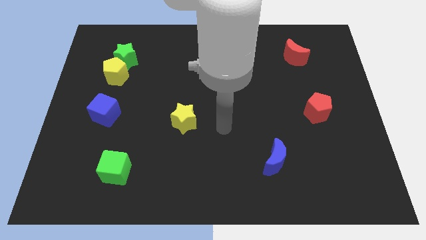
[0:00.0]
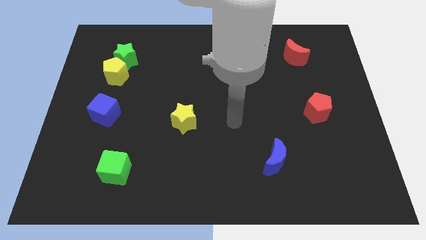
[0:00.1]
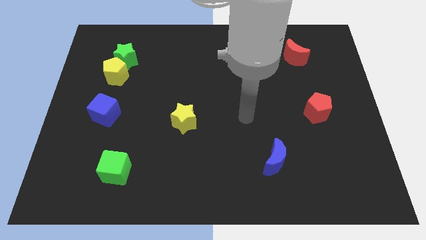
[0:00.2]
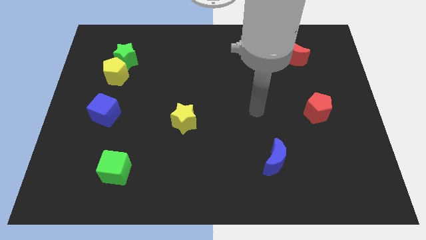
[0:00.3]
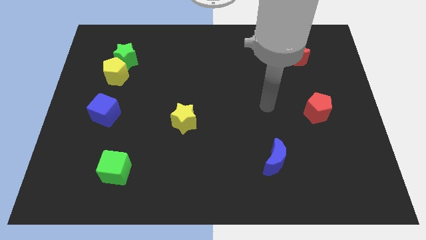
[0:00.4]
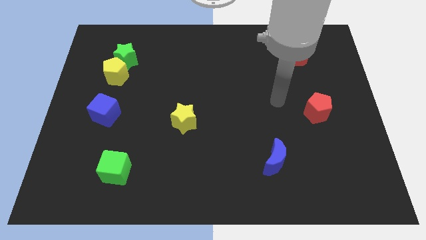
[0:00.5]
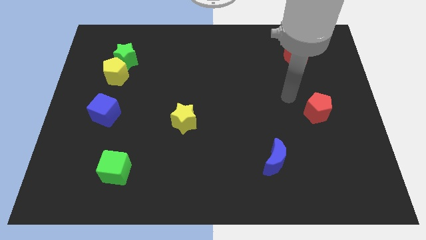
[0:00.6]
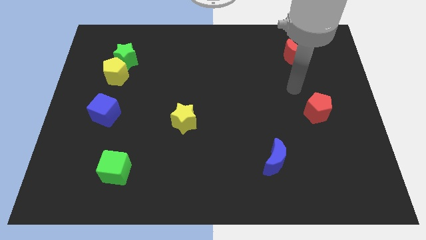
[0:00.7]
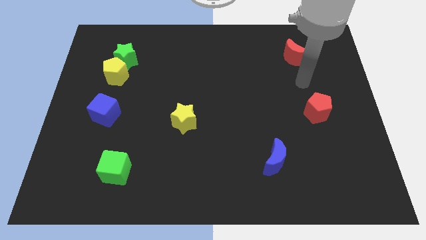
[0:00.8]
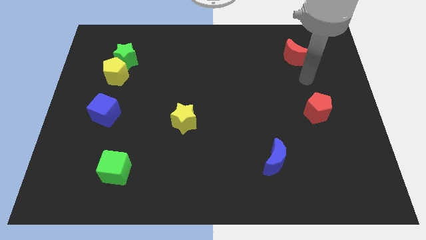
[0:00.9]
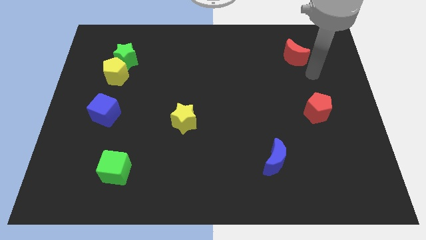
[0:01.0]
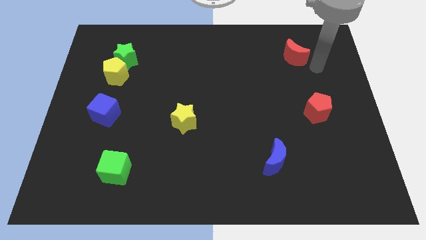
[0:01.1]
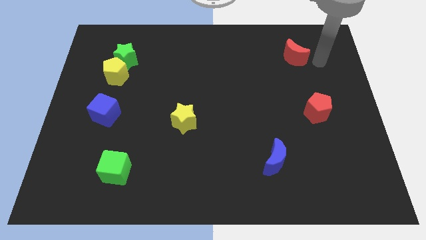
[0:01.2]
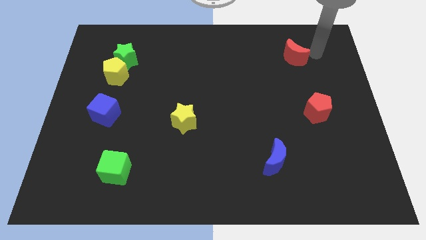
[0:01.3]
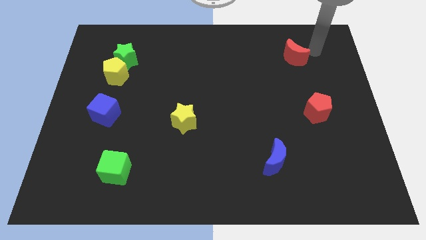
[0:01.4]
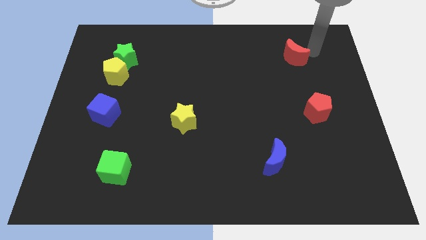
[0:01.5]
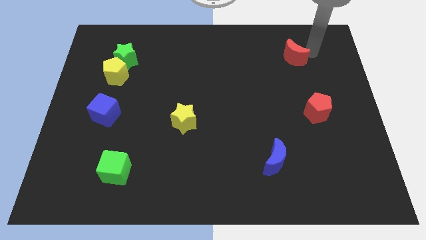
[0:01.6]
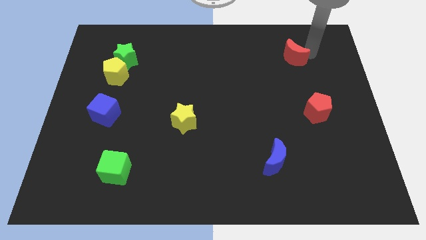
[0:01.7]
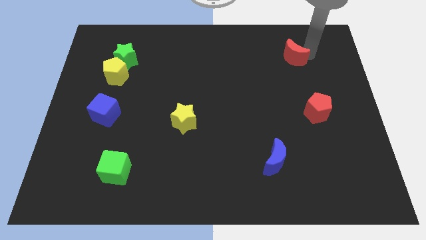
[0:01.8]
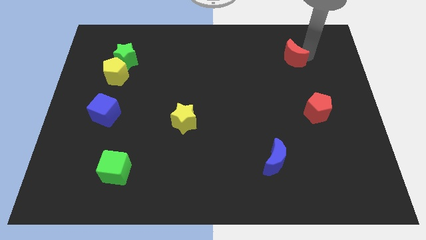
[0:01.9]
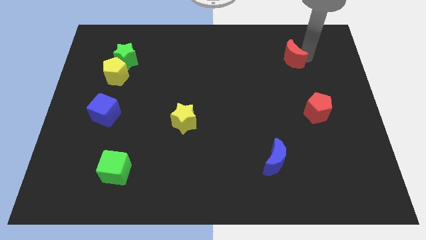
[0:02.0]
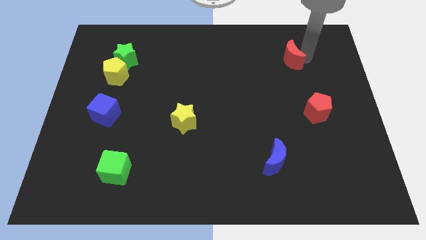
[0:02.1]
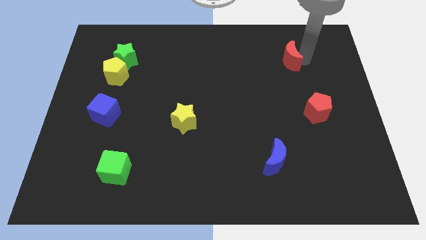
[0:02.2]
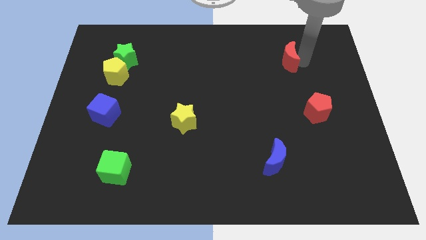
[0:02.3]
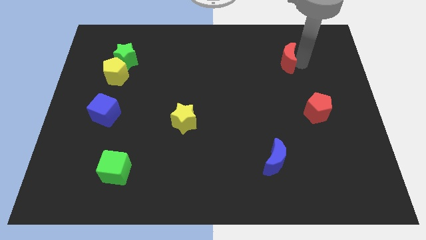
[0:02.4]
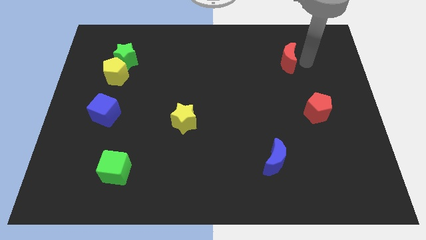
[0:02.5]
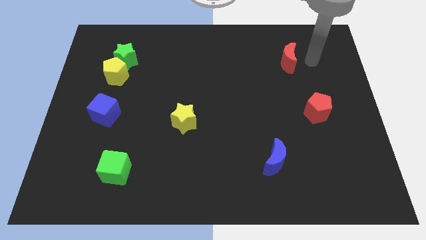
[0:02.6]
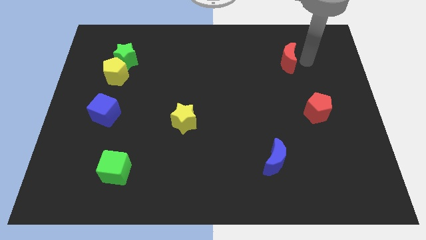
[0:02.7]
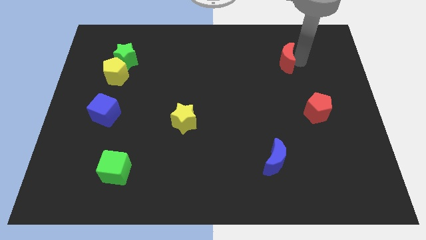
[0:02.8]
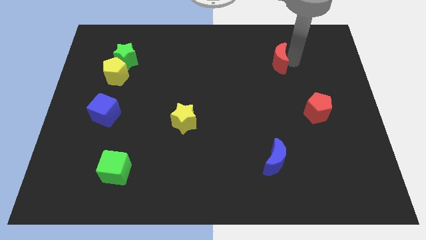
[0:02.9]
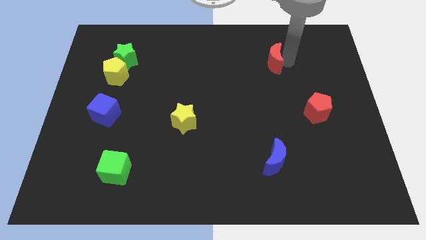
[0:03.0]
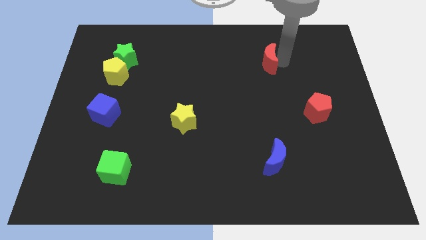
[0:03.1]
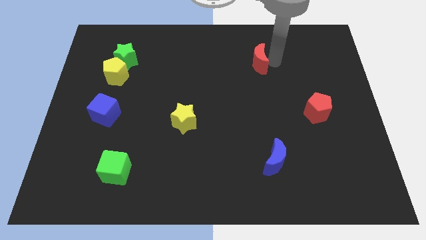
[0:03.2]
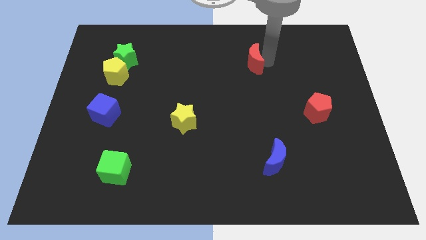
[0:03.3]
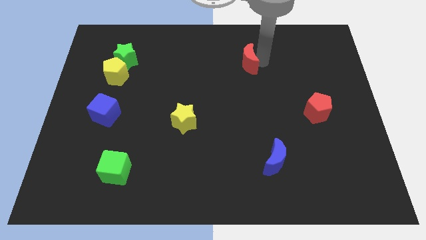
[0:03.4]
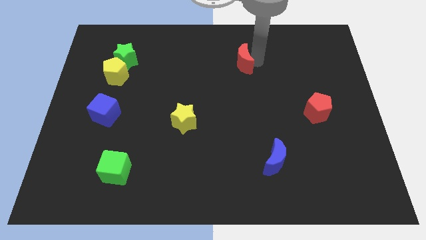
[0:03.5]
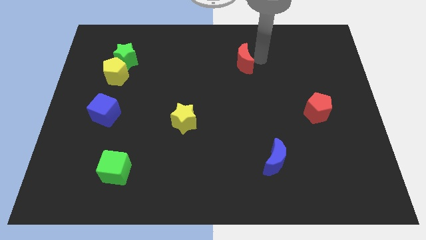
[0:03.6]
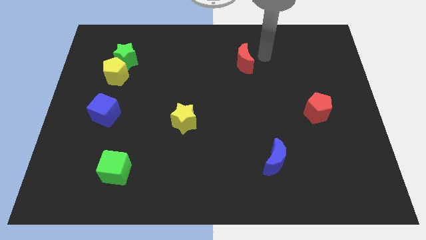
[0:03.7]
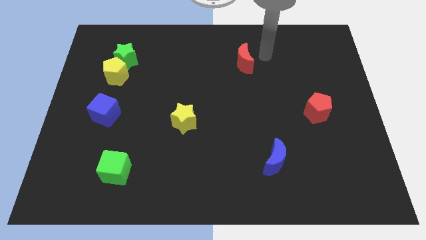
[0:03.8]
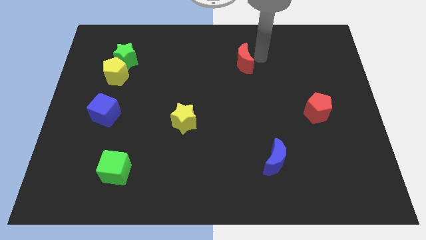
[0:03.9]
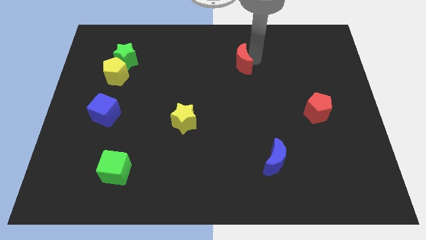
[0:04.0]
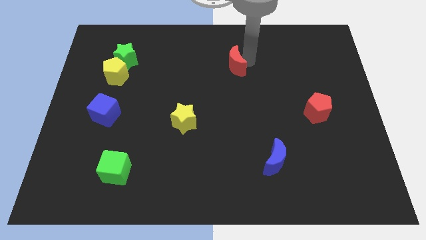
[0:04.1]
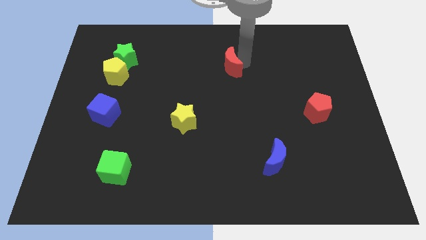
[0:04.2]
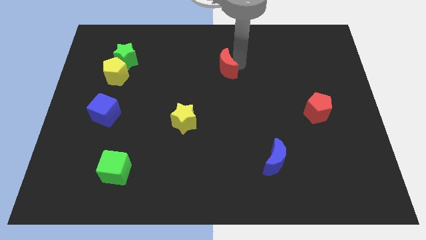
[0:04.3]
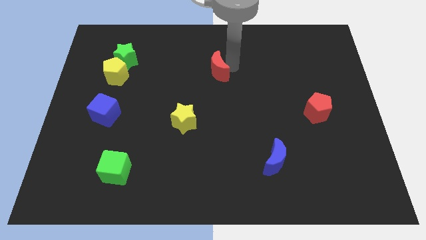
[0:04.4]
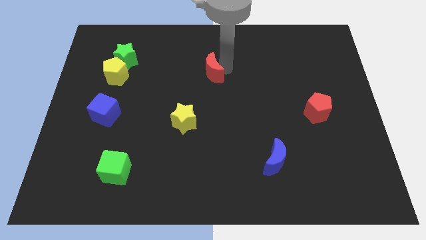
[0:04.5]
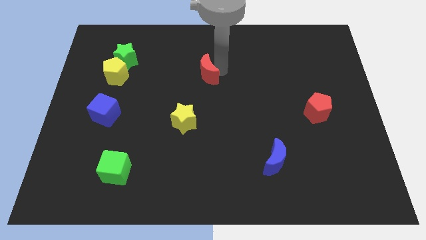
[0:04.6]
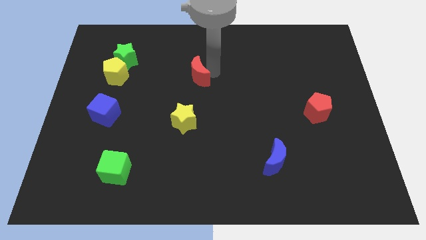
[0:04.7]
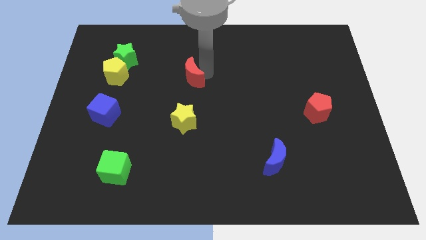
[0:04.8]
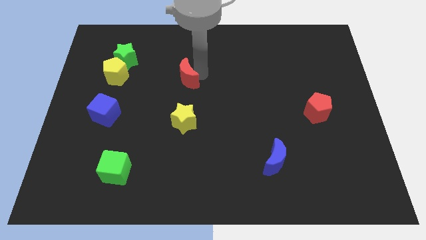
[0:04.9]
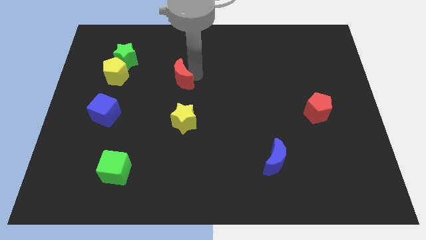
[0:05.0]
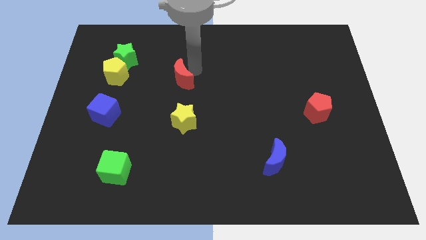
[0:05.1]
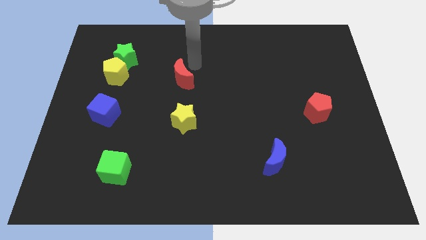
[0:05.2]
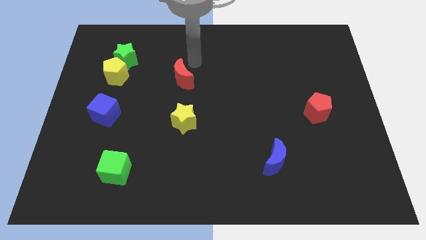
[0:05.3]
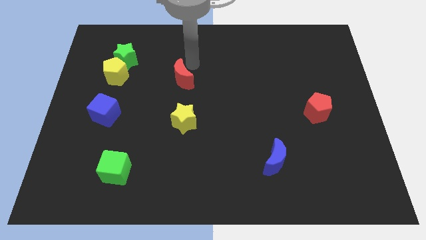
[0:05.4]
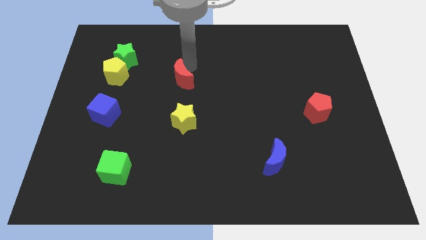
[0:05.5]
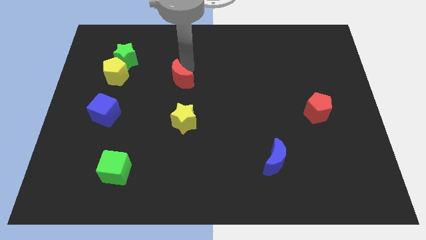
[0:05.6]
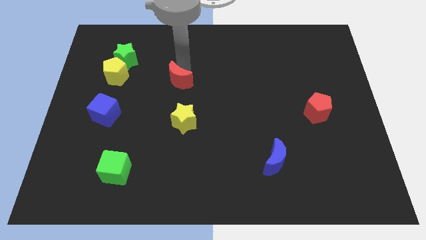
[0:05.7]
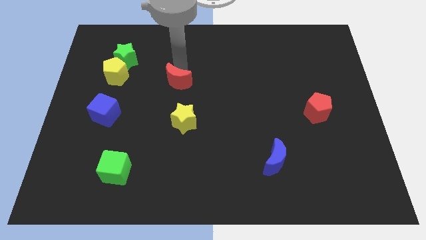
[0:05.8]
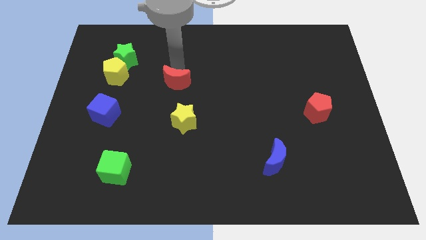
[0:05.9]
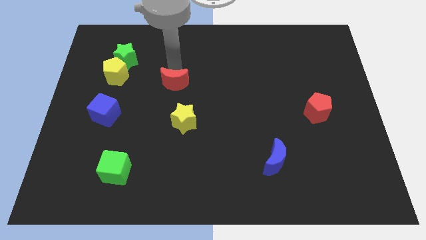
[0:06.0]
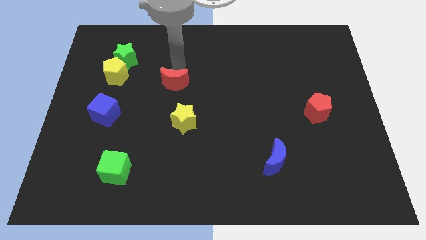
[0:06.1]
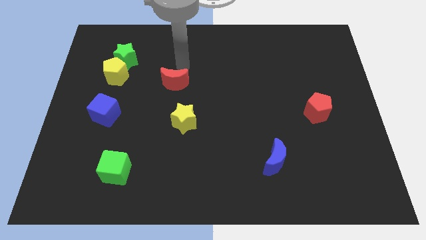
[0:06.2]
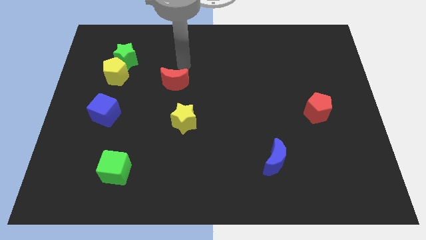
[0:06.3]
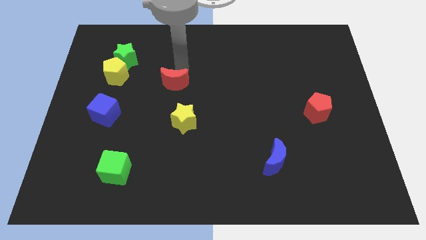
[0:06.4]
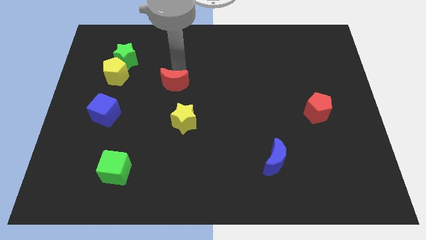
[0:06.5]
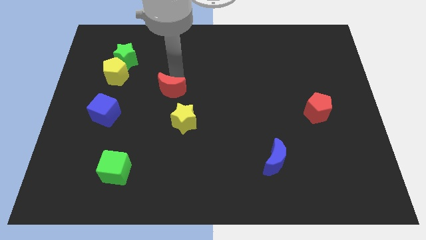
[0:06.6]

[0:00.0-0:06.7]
move the red moon to the top left side of the yellow star
